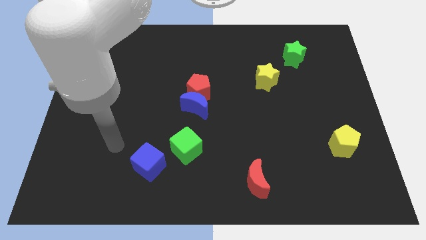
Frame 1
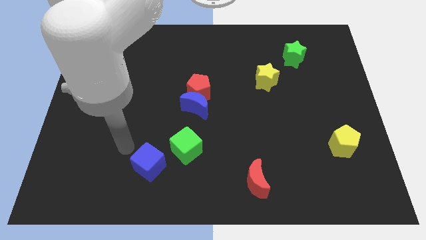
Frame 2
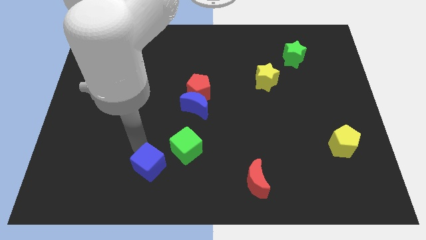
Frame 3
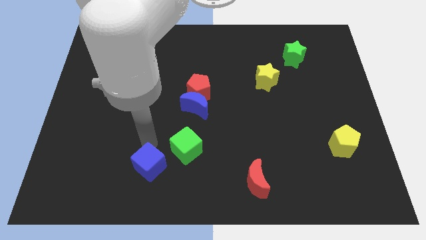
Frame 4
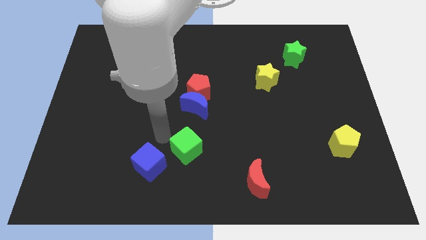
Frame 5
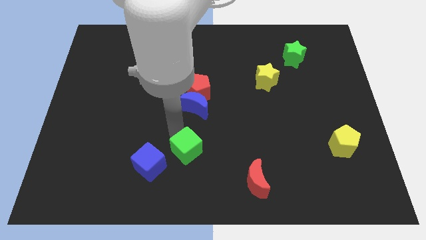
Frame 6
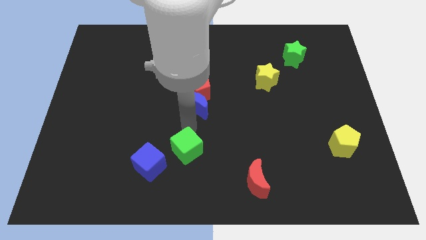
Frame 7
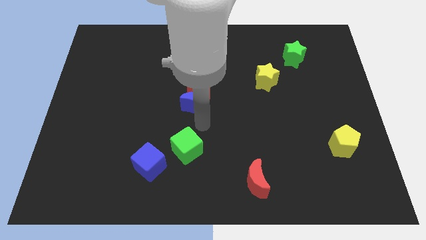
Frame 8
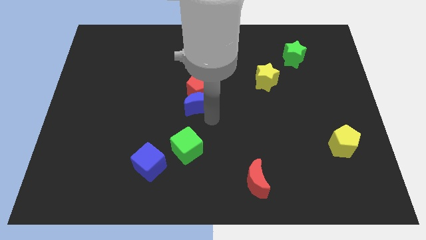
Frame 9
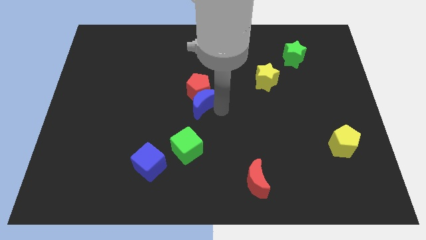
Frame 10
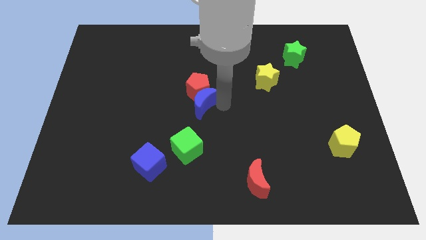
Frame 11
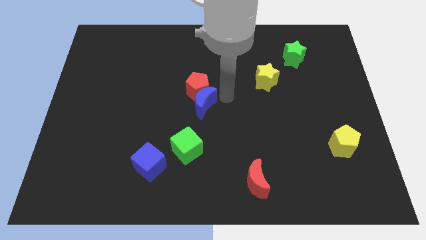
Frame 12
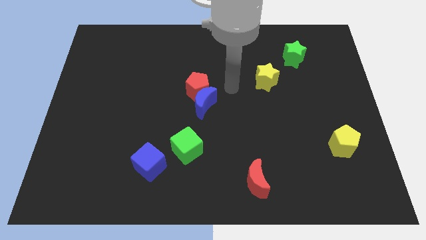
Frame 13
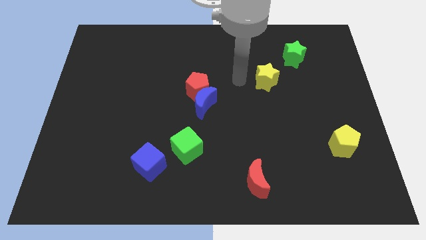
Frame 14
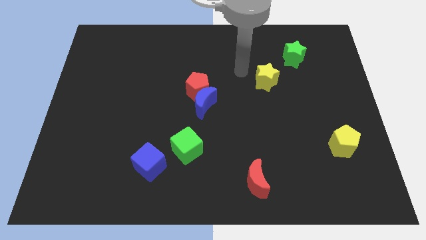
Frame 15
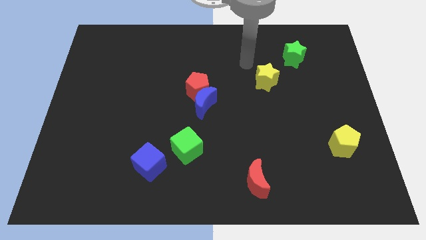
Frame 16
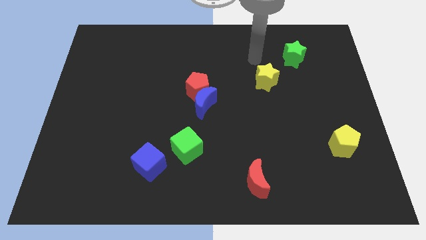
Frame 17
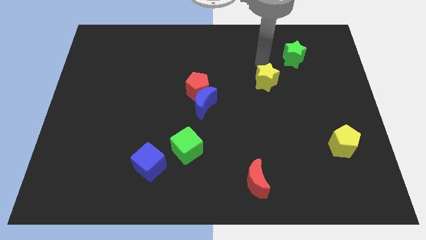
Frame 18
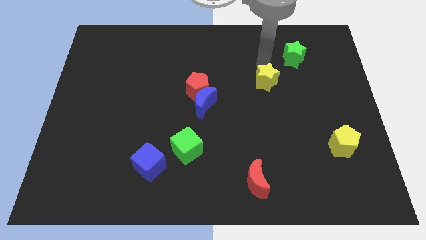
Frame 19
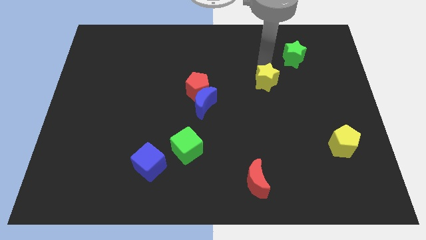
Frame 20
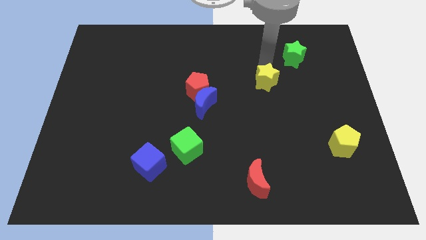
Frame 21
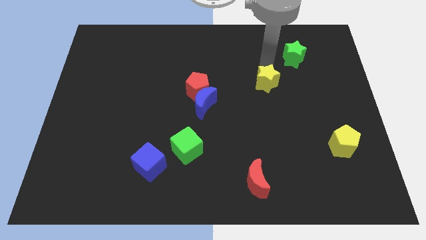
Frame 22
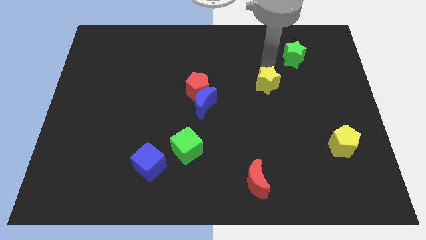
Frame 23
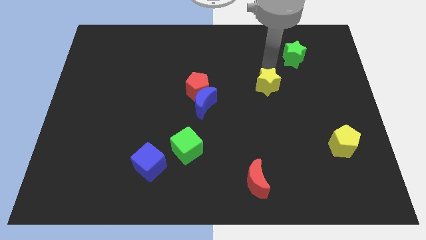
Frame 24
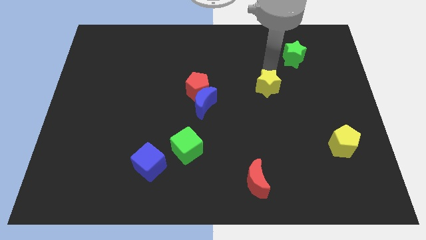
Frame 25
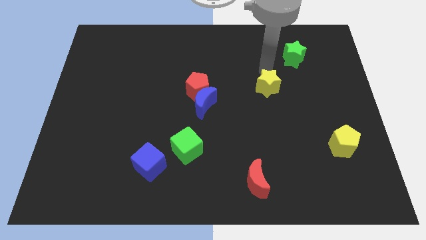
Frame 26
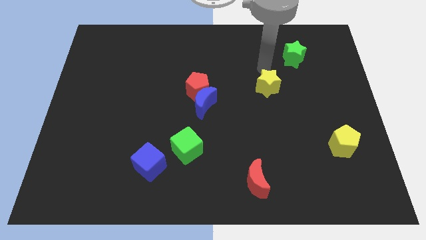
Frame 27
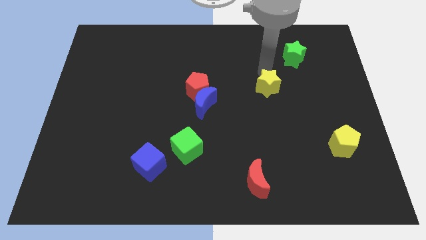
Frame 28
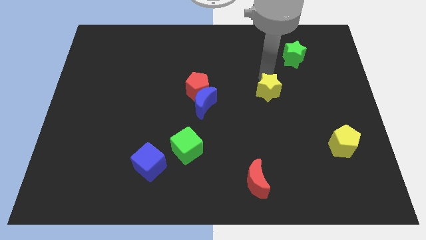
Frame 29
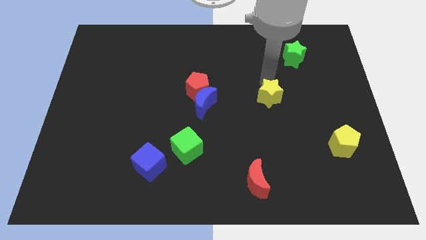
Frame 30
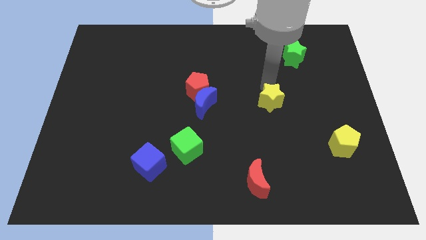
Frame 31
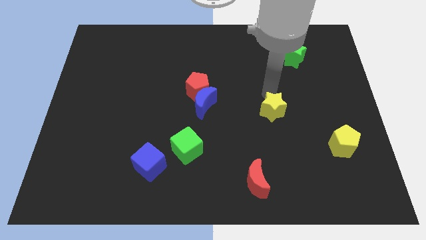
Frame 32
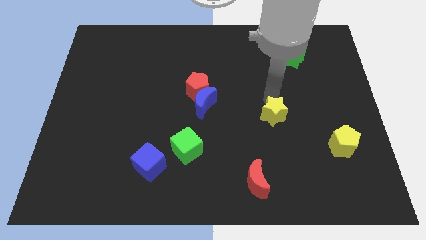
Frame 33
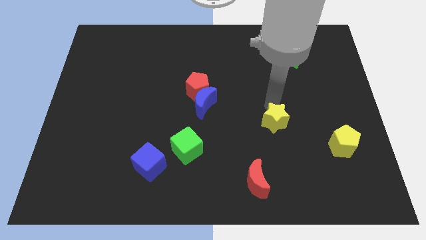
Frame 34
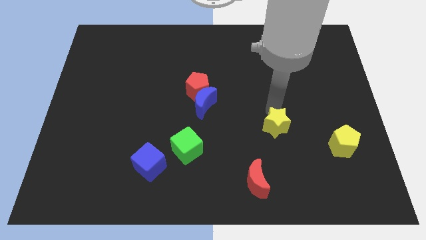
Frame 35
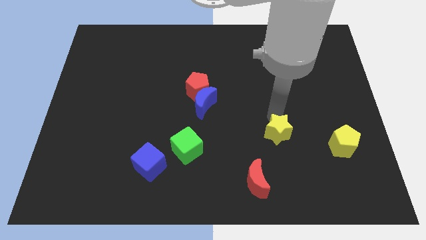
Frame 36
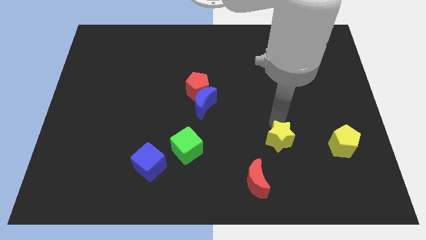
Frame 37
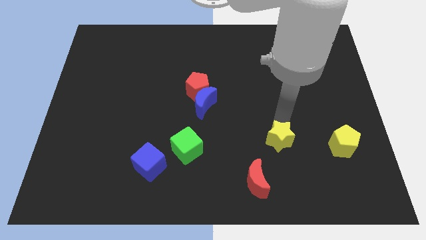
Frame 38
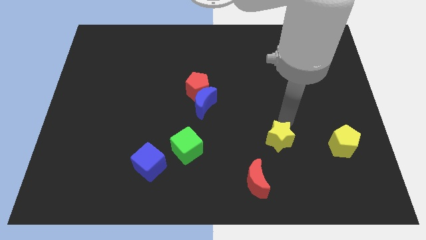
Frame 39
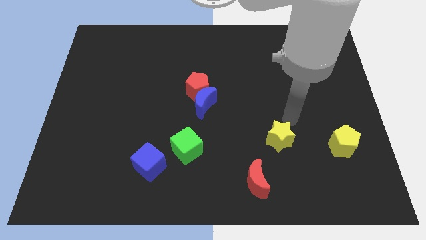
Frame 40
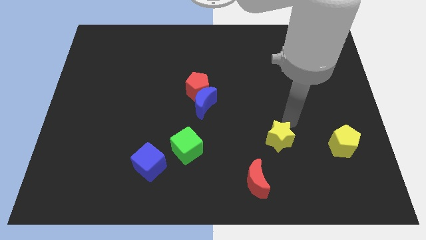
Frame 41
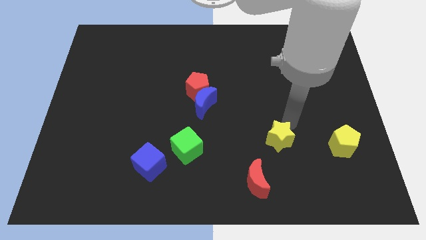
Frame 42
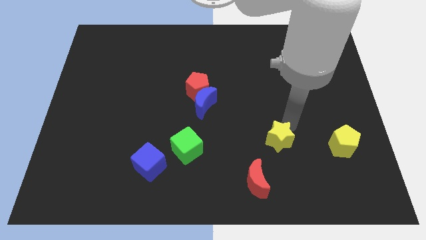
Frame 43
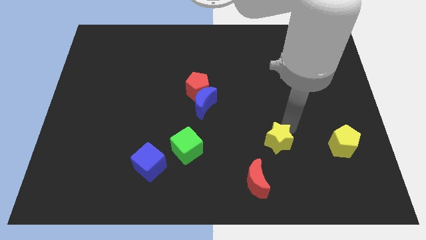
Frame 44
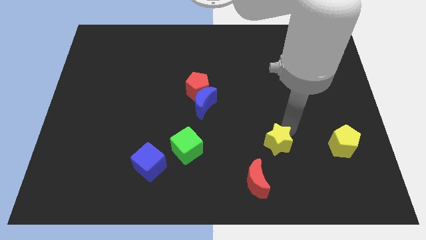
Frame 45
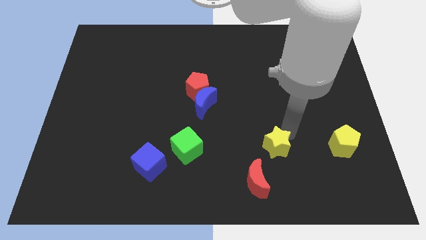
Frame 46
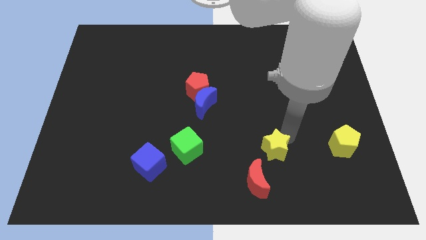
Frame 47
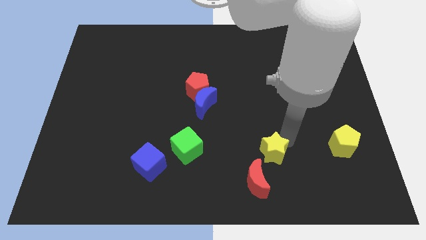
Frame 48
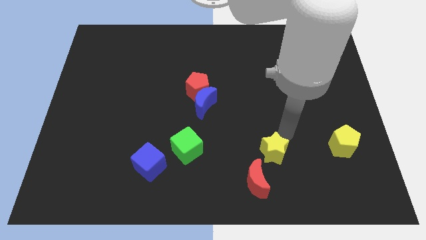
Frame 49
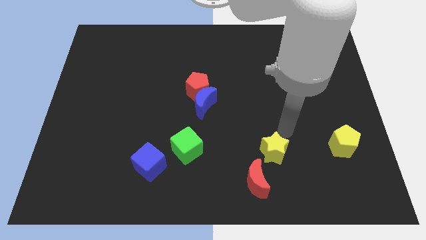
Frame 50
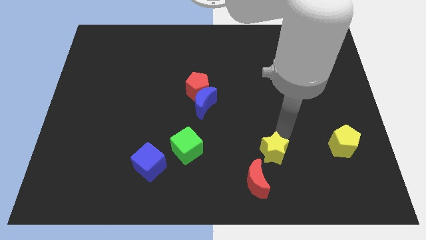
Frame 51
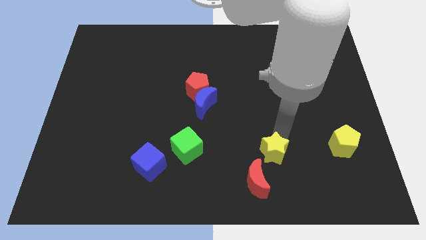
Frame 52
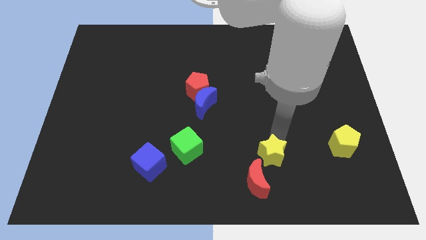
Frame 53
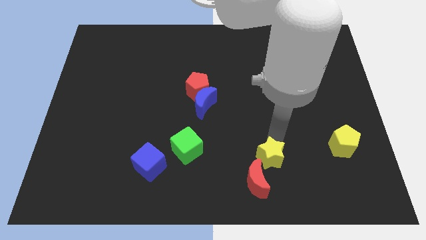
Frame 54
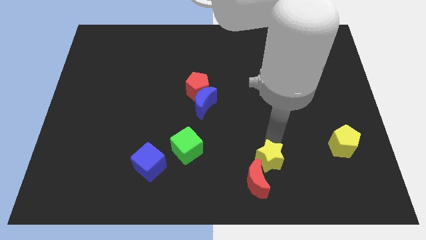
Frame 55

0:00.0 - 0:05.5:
slide the yellow star close to the red moon
